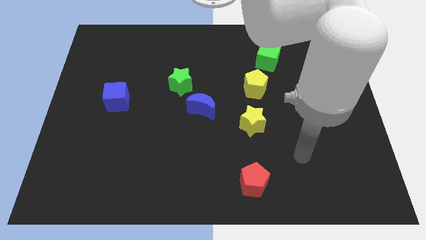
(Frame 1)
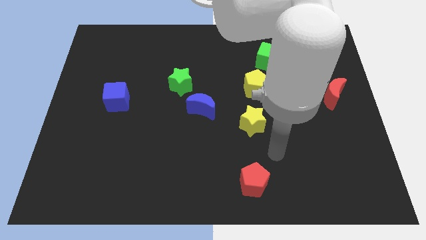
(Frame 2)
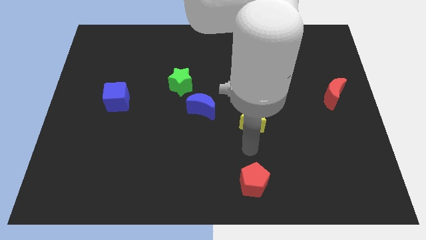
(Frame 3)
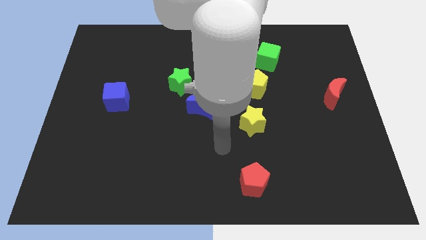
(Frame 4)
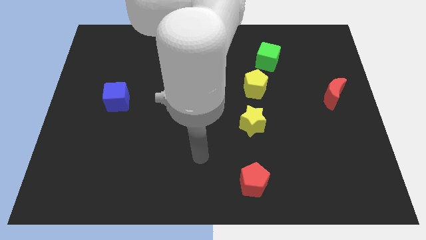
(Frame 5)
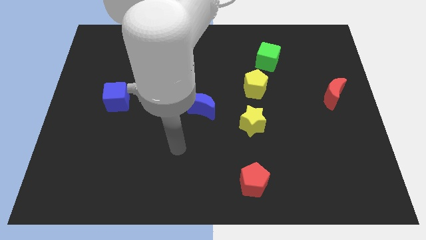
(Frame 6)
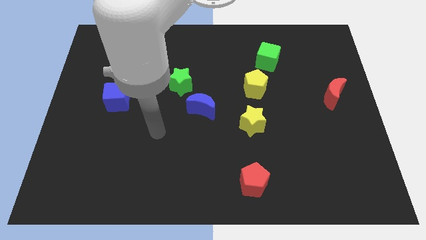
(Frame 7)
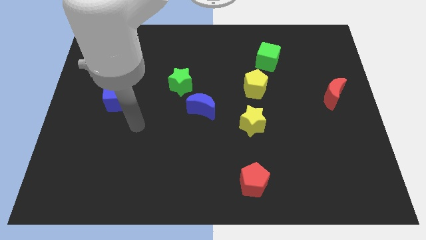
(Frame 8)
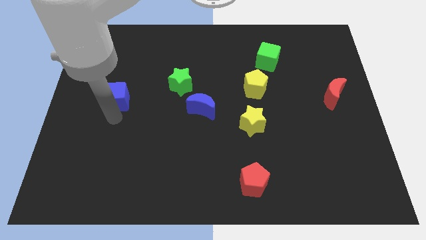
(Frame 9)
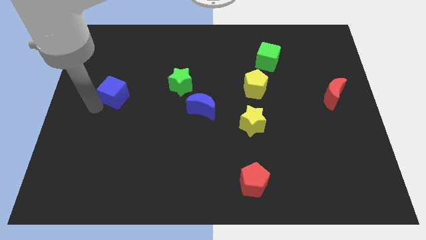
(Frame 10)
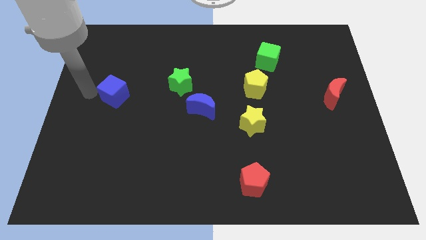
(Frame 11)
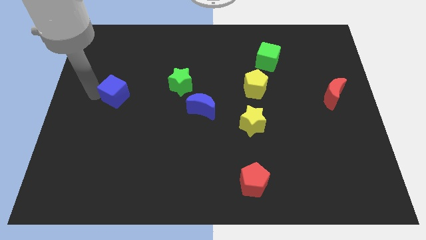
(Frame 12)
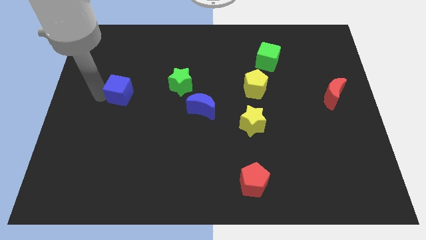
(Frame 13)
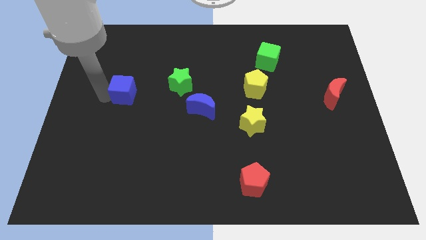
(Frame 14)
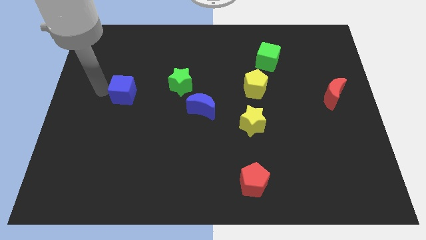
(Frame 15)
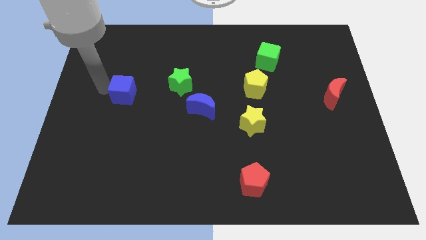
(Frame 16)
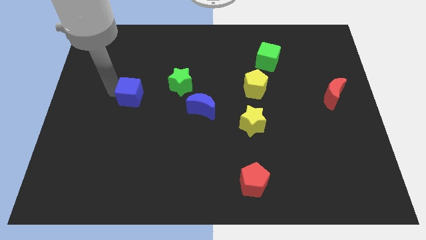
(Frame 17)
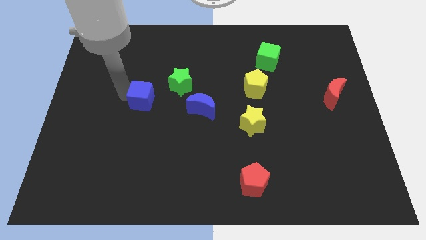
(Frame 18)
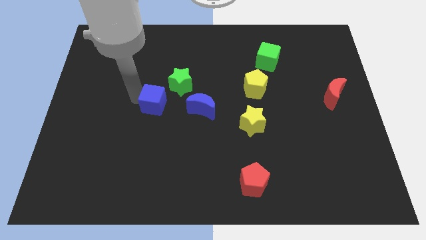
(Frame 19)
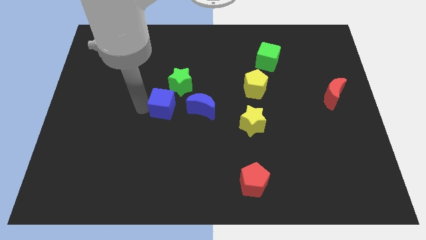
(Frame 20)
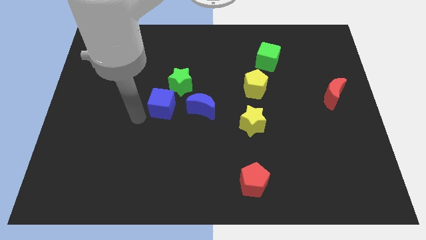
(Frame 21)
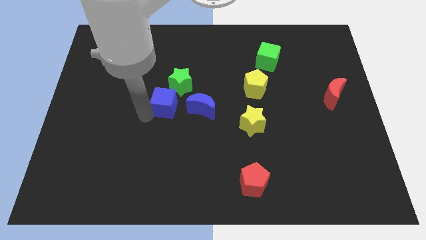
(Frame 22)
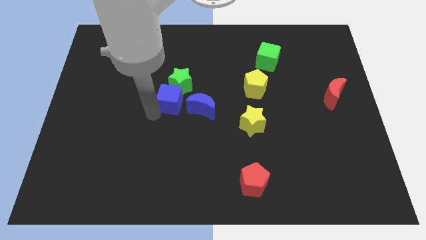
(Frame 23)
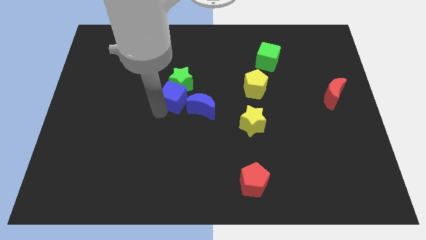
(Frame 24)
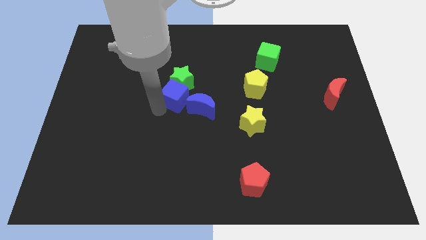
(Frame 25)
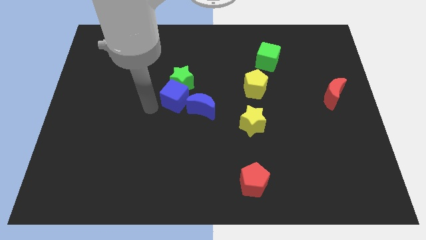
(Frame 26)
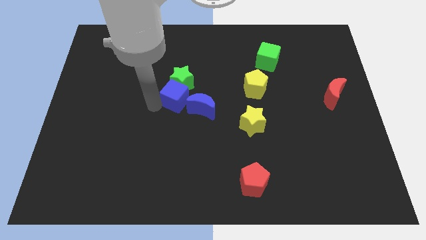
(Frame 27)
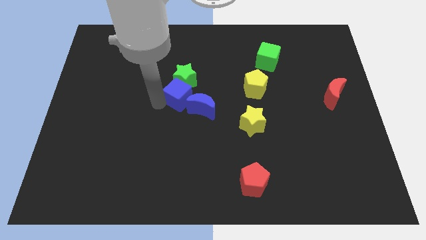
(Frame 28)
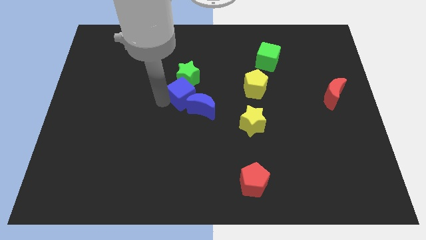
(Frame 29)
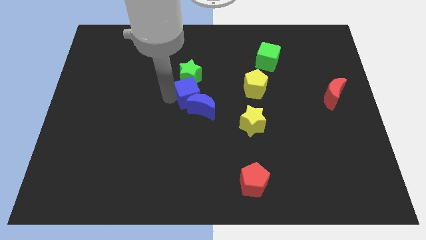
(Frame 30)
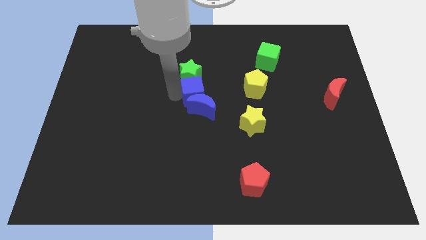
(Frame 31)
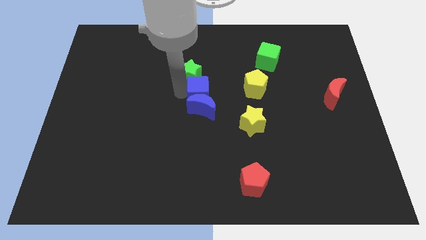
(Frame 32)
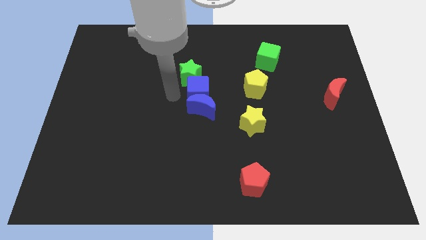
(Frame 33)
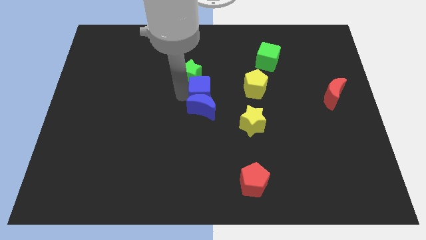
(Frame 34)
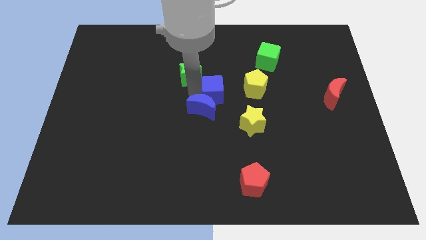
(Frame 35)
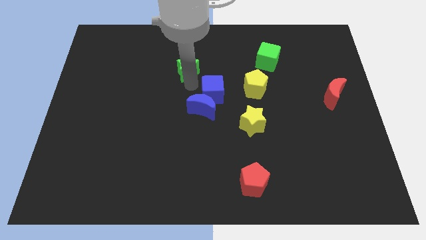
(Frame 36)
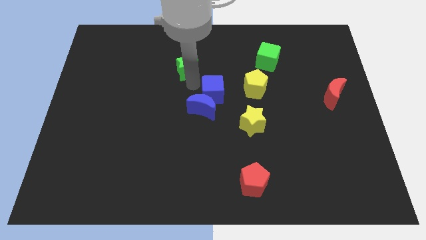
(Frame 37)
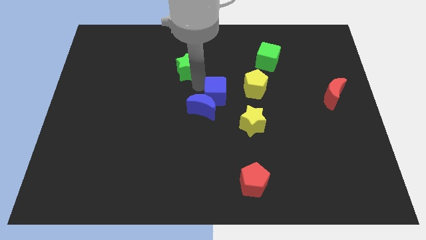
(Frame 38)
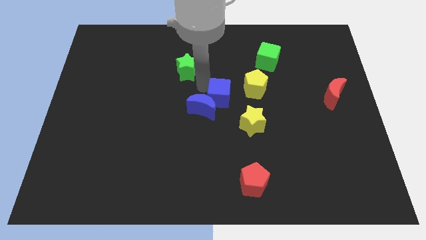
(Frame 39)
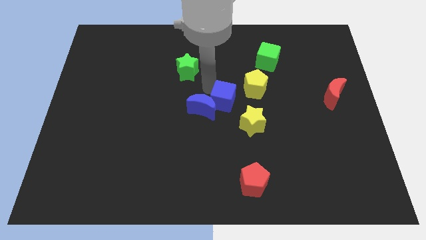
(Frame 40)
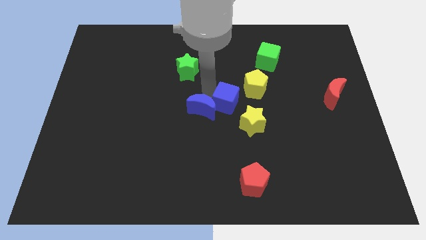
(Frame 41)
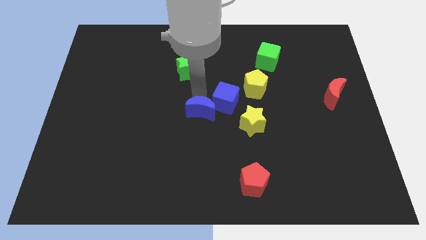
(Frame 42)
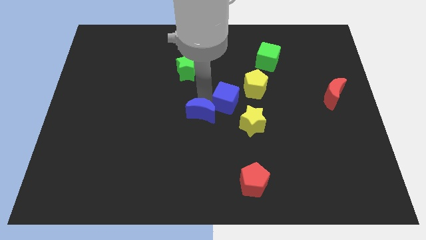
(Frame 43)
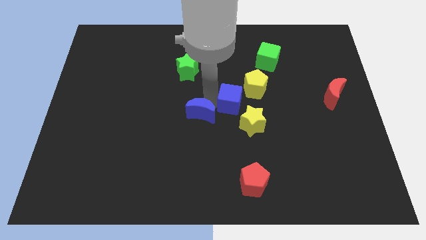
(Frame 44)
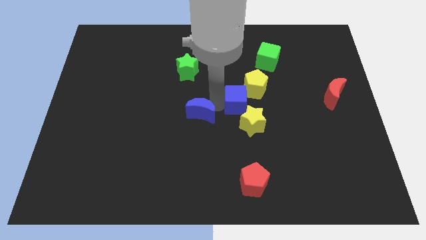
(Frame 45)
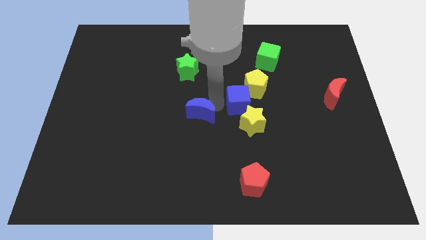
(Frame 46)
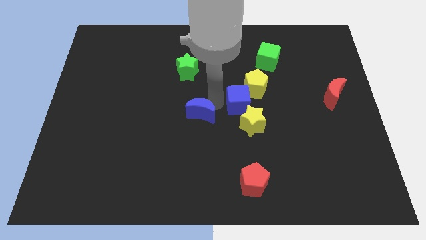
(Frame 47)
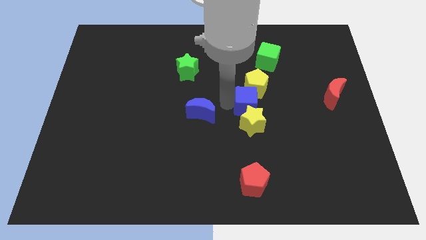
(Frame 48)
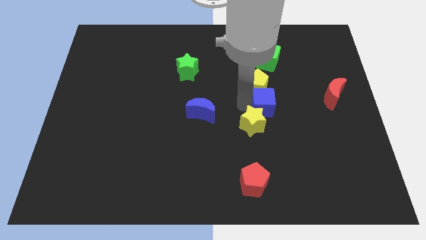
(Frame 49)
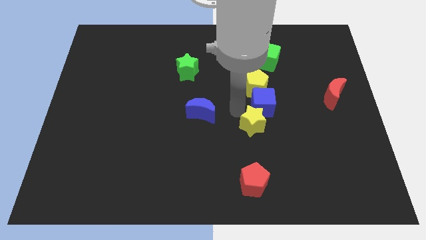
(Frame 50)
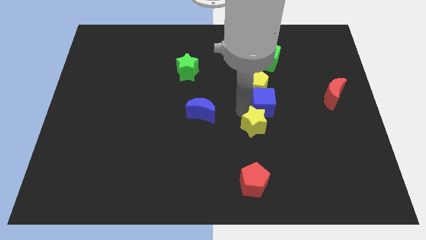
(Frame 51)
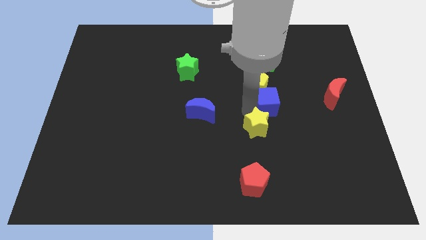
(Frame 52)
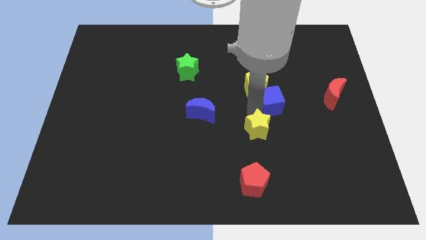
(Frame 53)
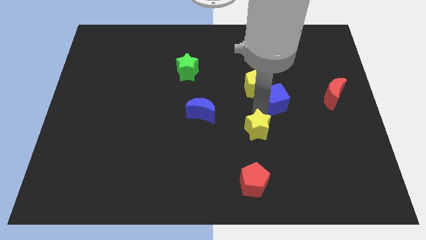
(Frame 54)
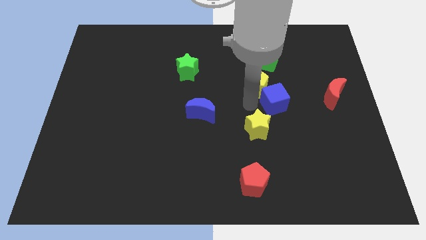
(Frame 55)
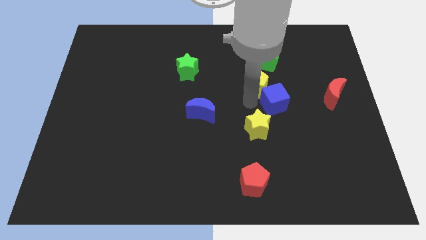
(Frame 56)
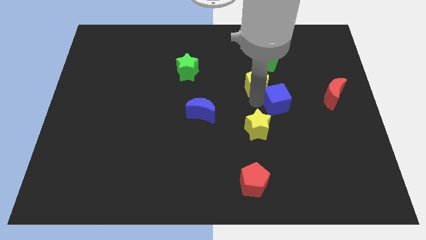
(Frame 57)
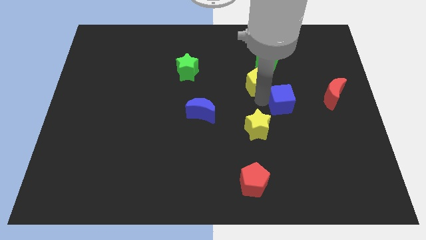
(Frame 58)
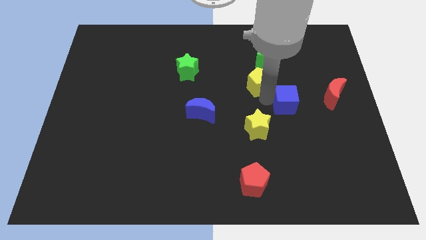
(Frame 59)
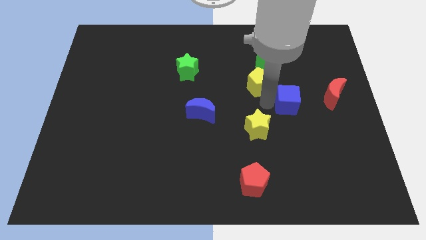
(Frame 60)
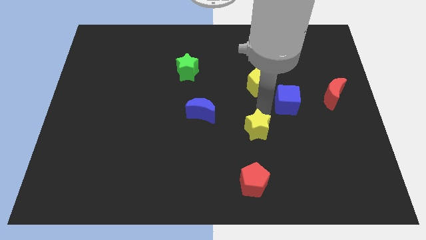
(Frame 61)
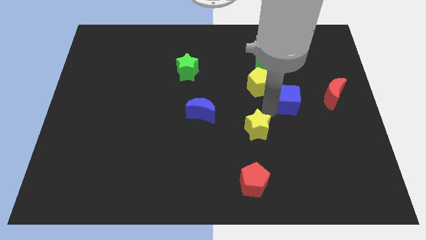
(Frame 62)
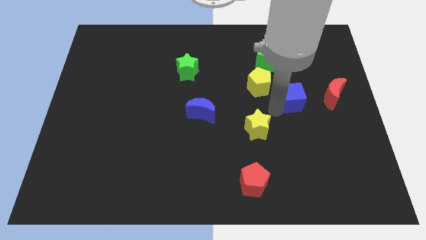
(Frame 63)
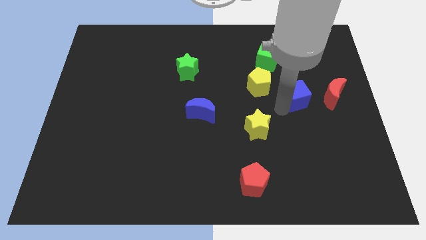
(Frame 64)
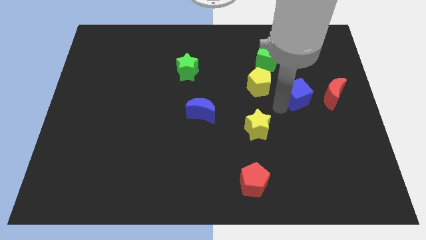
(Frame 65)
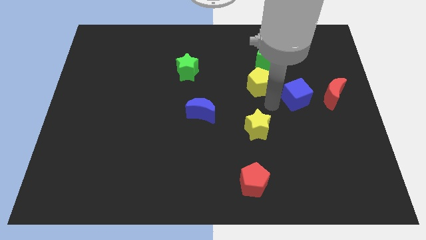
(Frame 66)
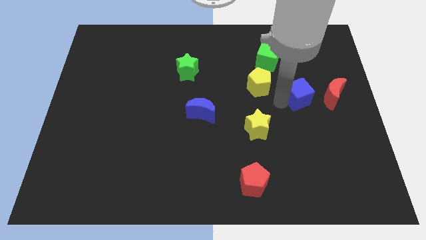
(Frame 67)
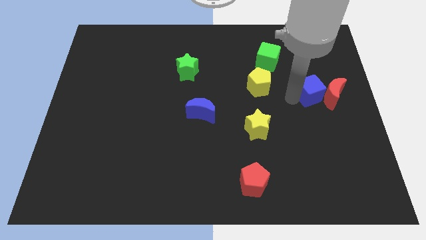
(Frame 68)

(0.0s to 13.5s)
put the blue cube to the red moon
